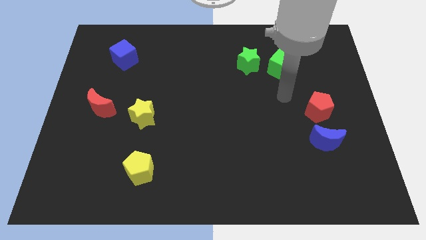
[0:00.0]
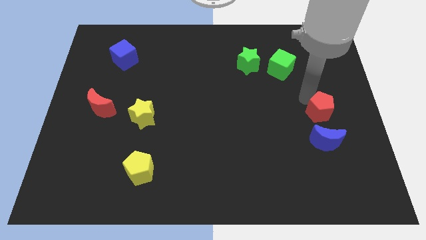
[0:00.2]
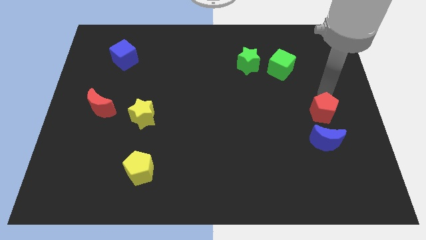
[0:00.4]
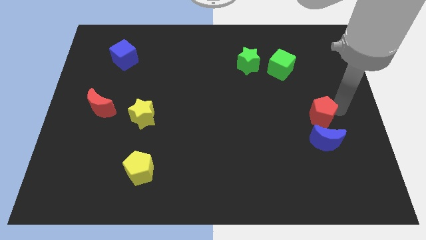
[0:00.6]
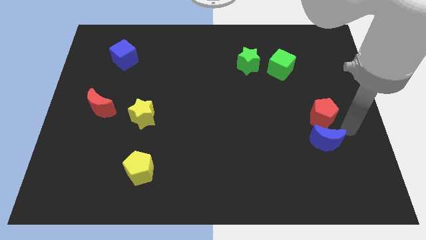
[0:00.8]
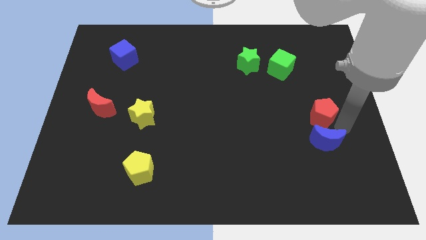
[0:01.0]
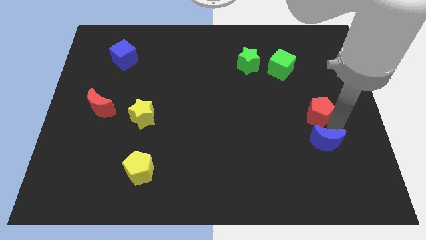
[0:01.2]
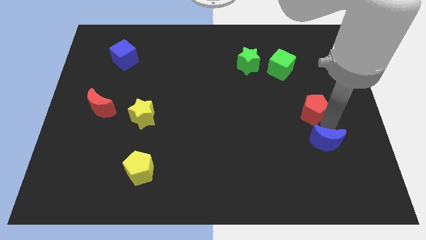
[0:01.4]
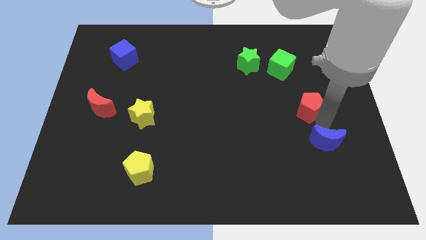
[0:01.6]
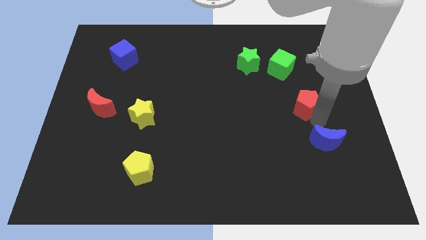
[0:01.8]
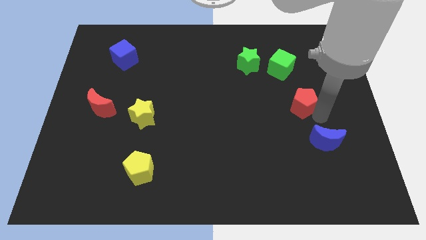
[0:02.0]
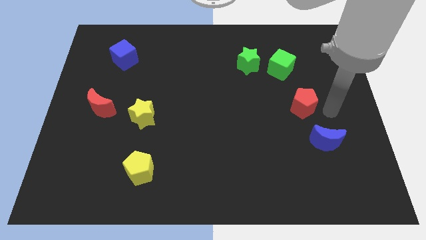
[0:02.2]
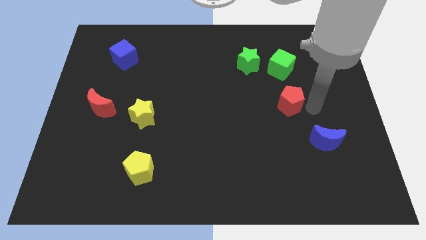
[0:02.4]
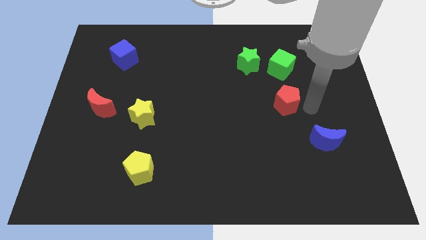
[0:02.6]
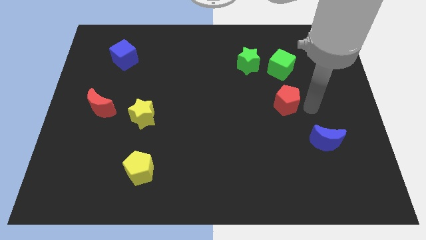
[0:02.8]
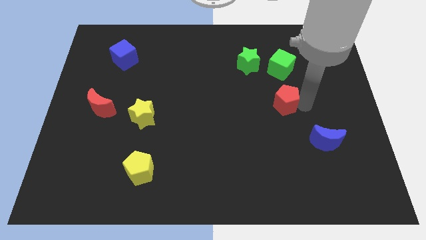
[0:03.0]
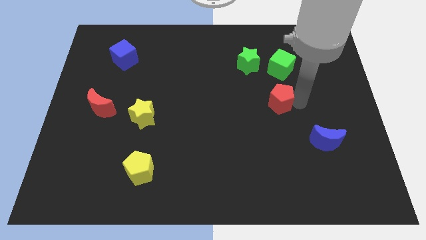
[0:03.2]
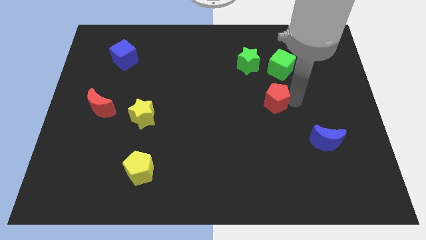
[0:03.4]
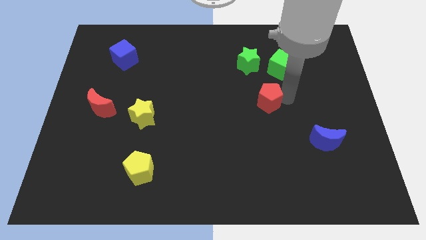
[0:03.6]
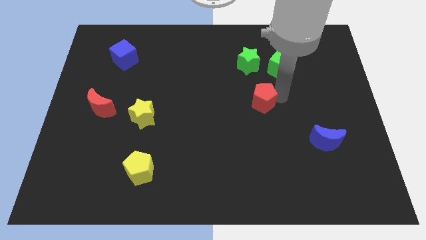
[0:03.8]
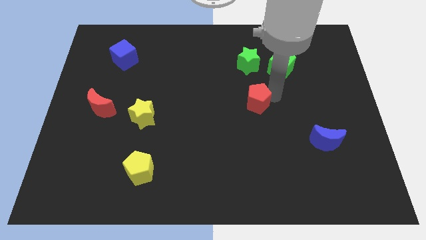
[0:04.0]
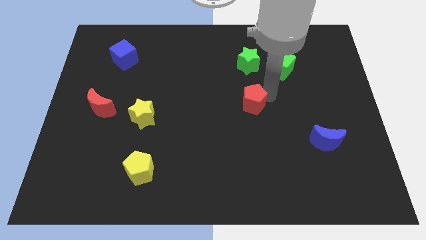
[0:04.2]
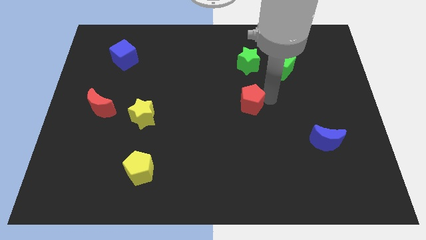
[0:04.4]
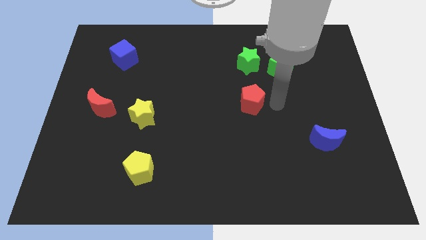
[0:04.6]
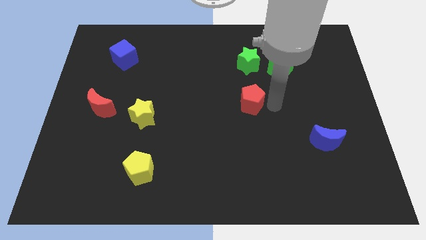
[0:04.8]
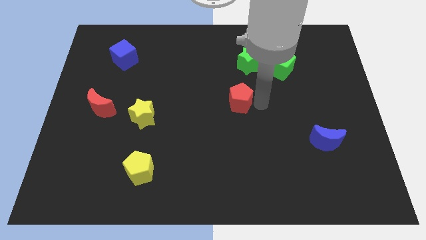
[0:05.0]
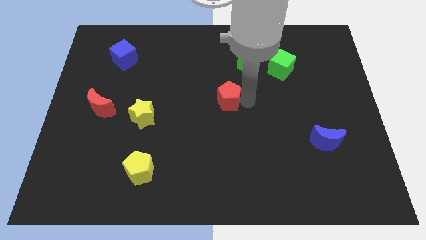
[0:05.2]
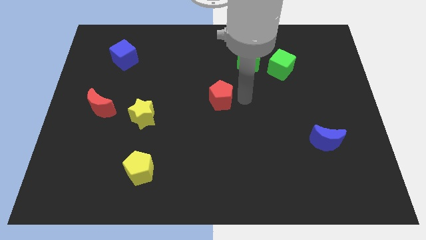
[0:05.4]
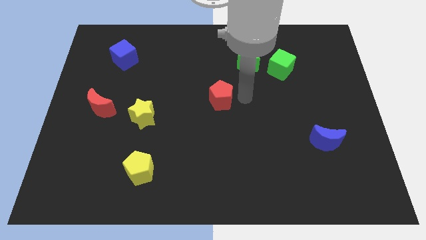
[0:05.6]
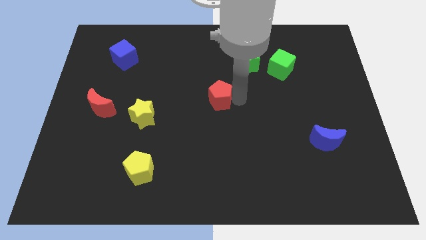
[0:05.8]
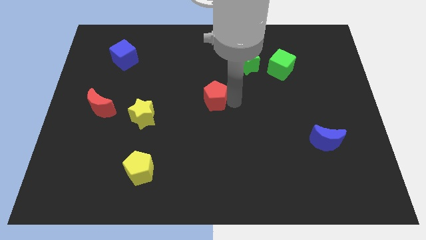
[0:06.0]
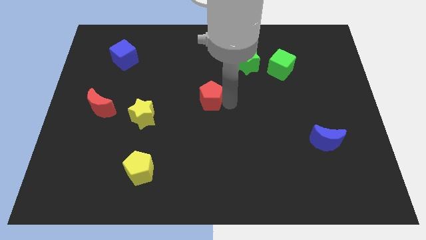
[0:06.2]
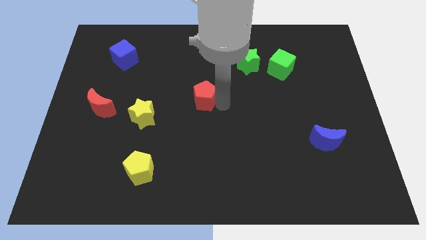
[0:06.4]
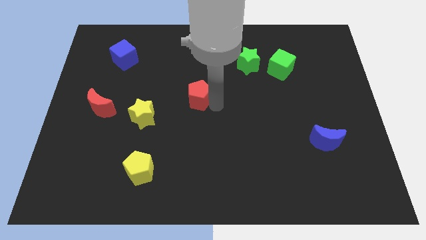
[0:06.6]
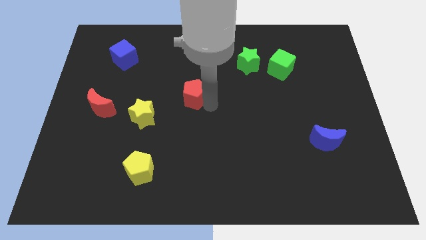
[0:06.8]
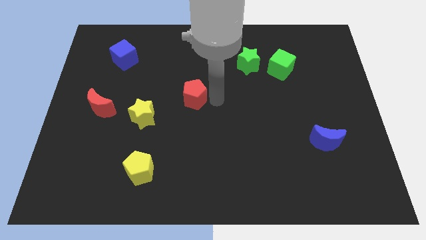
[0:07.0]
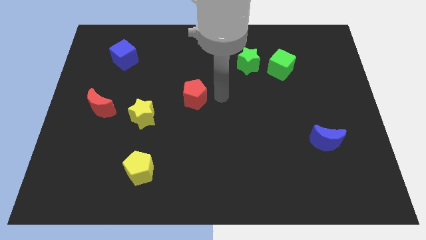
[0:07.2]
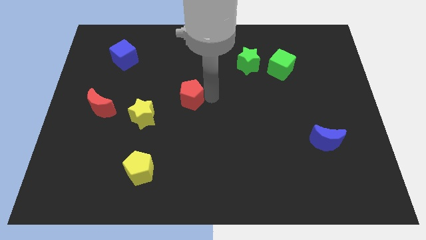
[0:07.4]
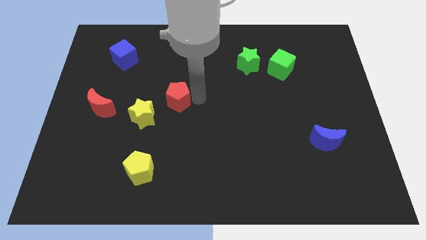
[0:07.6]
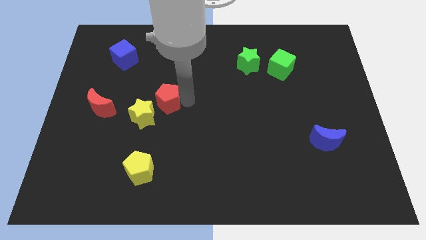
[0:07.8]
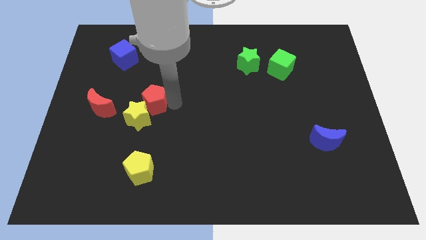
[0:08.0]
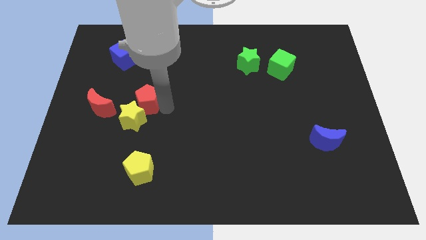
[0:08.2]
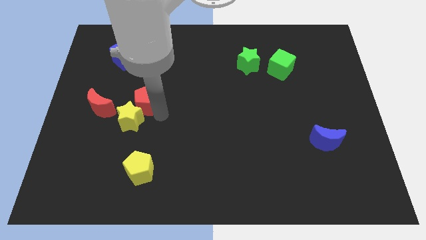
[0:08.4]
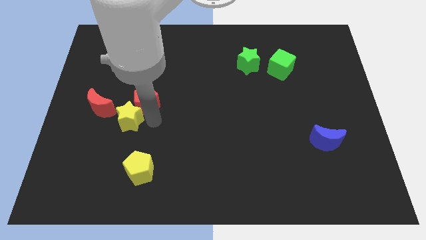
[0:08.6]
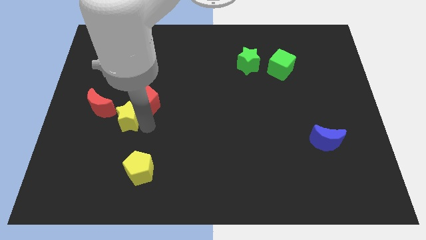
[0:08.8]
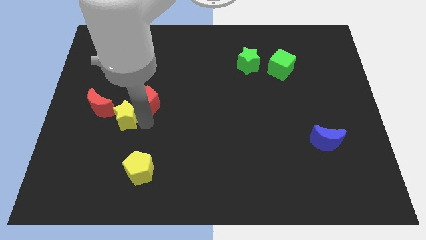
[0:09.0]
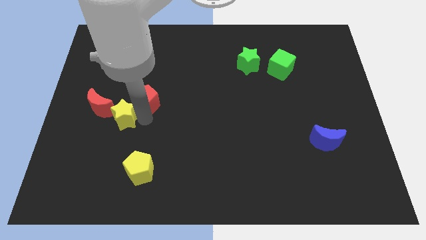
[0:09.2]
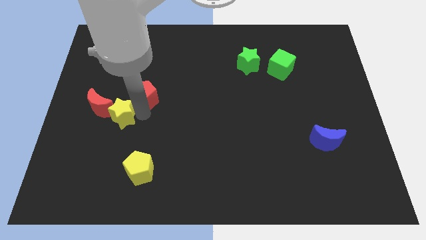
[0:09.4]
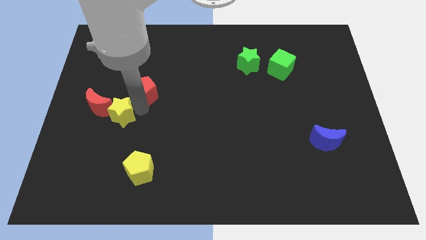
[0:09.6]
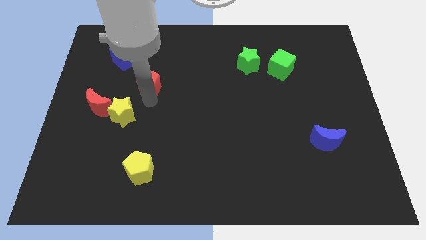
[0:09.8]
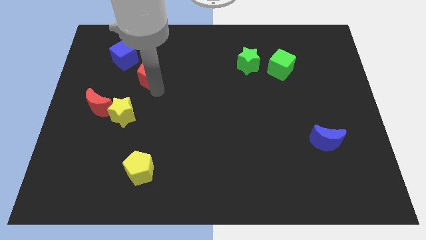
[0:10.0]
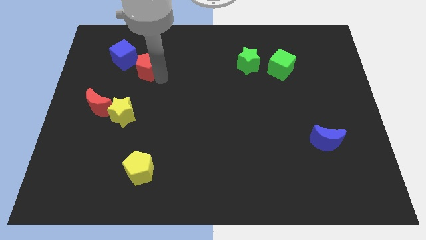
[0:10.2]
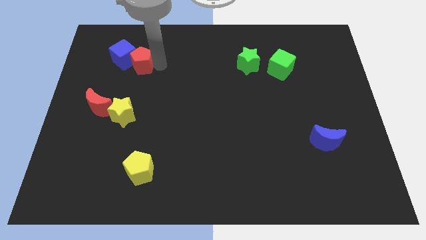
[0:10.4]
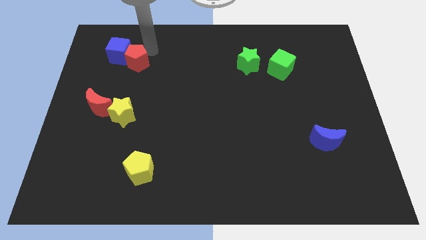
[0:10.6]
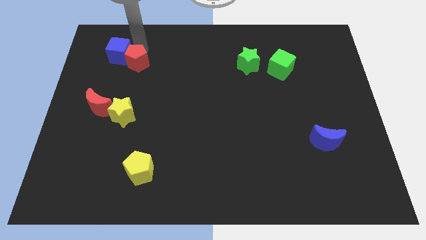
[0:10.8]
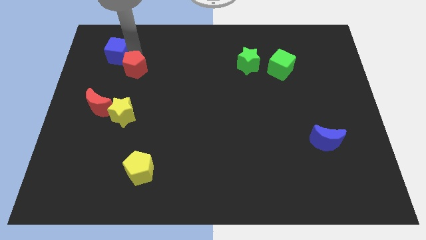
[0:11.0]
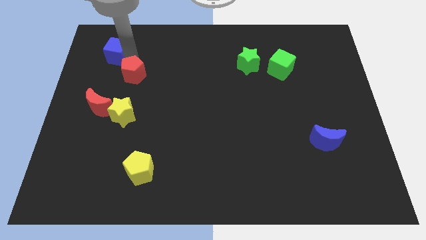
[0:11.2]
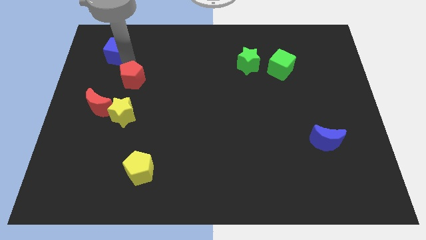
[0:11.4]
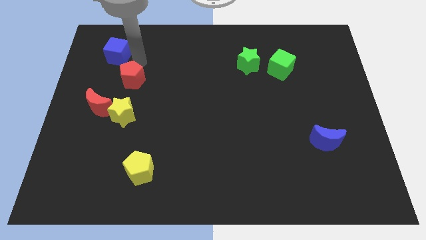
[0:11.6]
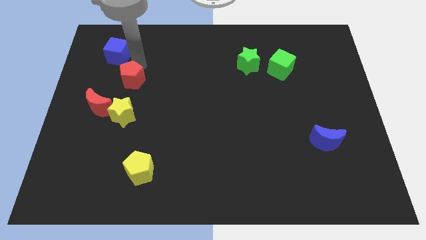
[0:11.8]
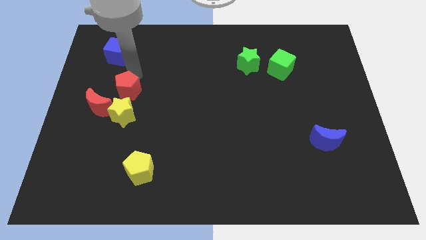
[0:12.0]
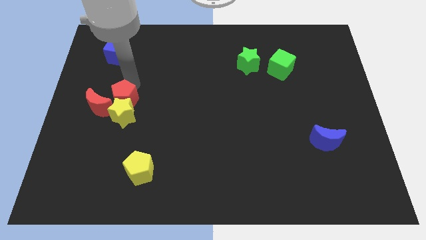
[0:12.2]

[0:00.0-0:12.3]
slide the red pentagon close to the red moon

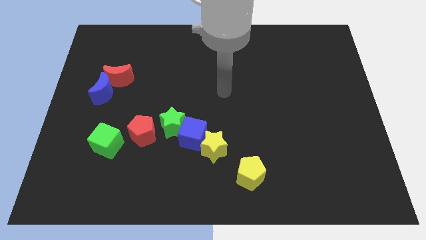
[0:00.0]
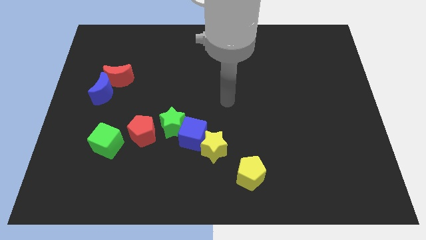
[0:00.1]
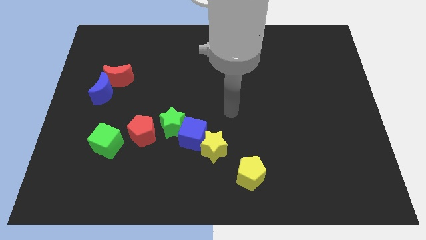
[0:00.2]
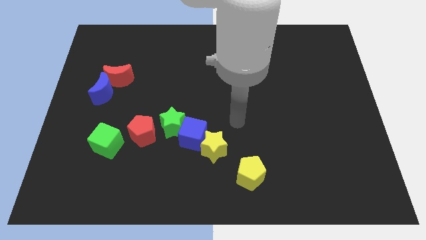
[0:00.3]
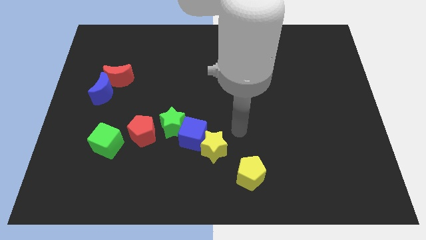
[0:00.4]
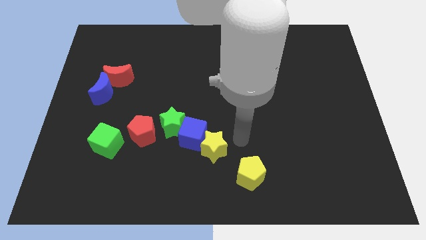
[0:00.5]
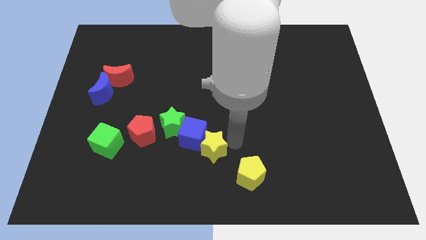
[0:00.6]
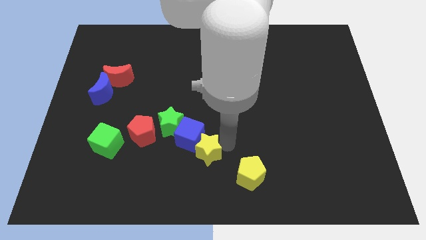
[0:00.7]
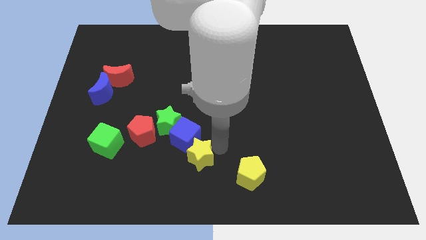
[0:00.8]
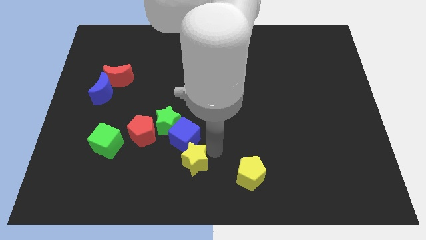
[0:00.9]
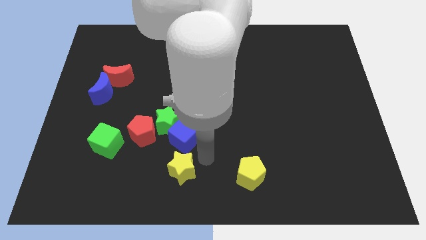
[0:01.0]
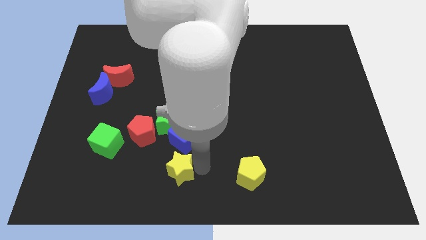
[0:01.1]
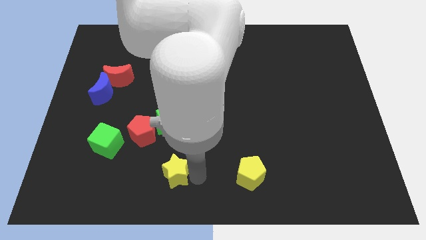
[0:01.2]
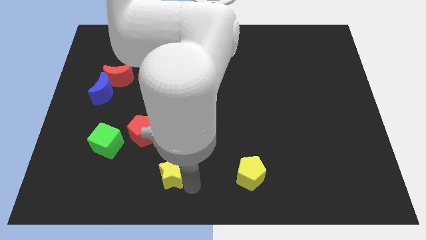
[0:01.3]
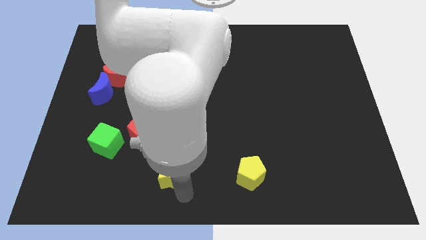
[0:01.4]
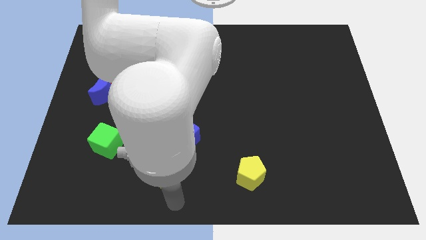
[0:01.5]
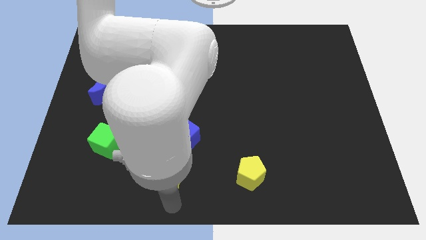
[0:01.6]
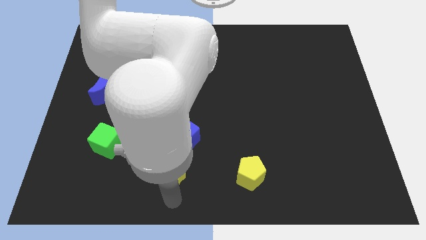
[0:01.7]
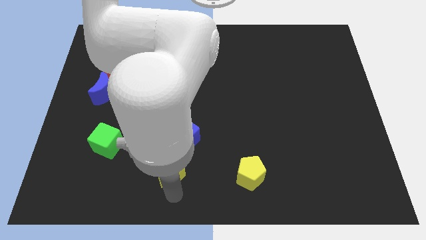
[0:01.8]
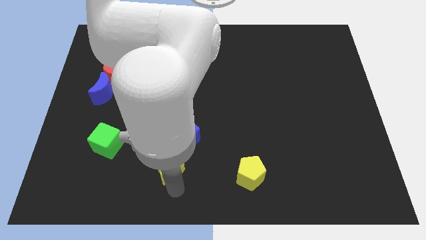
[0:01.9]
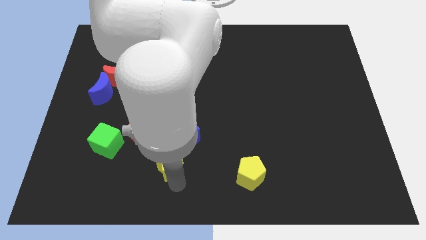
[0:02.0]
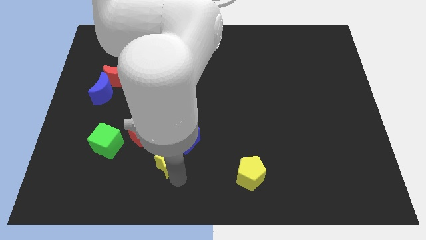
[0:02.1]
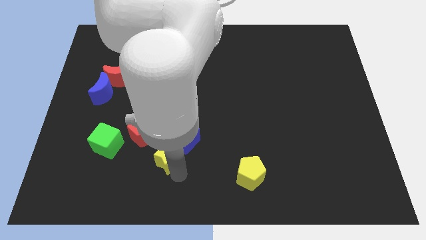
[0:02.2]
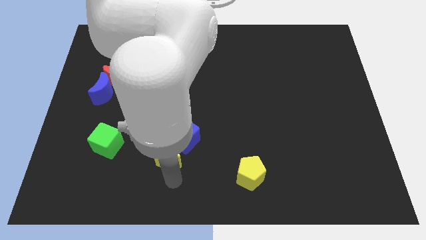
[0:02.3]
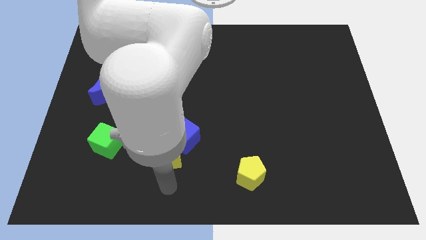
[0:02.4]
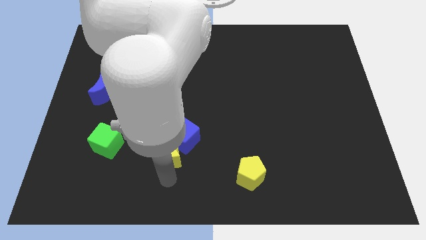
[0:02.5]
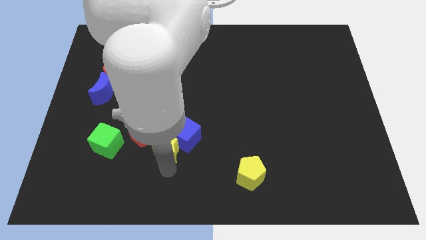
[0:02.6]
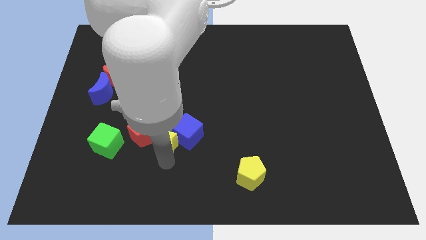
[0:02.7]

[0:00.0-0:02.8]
move the yellow star towards the green star
